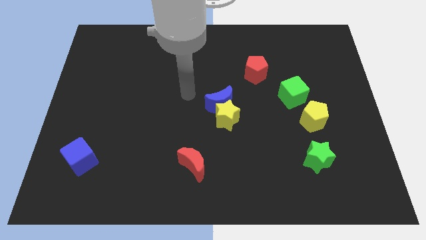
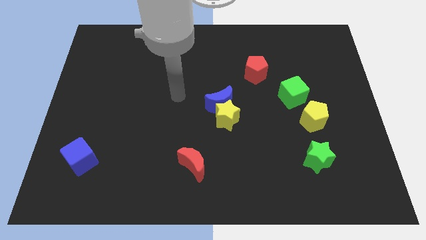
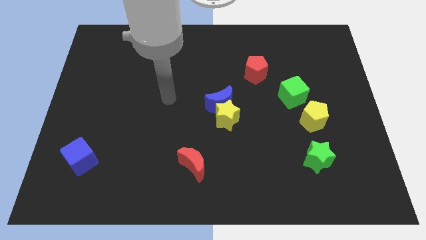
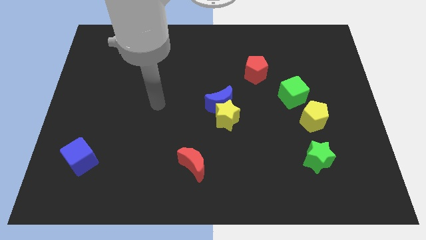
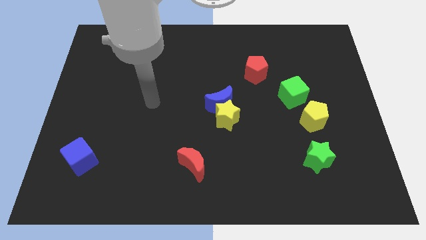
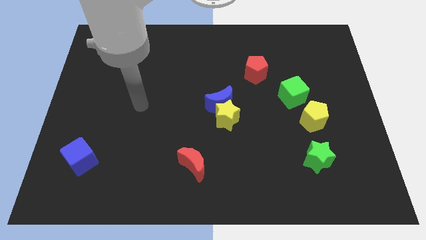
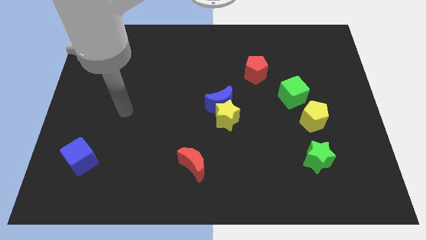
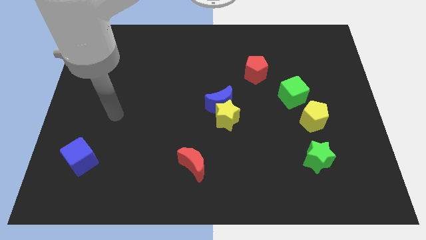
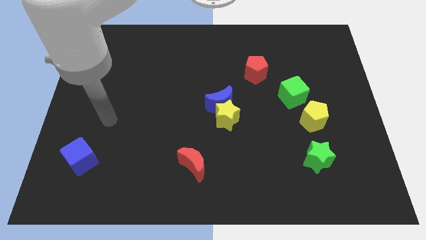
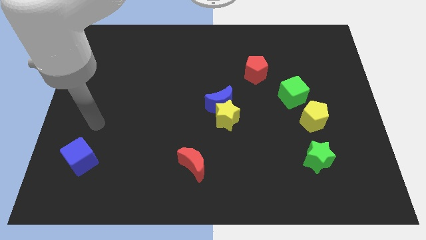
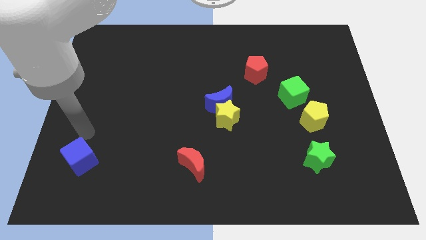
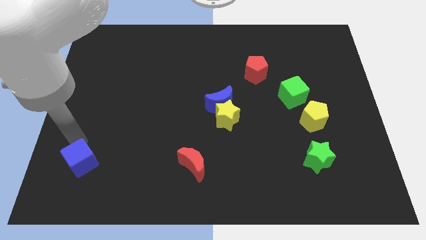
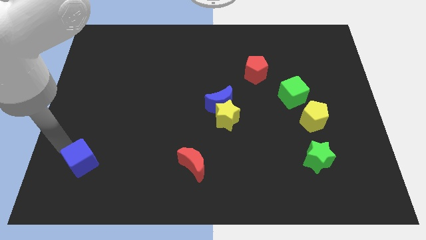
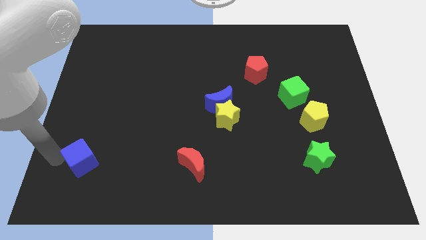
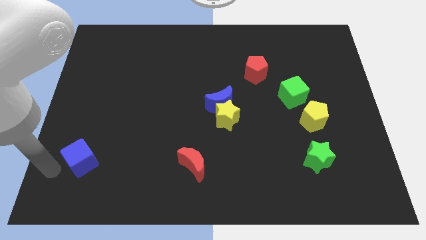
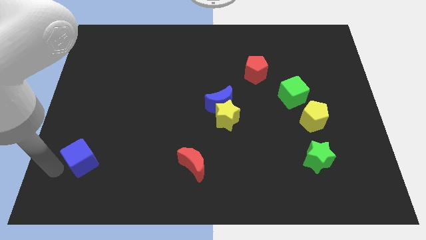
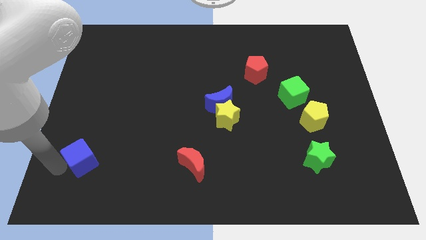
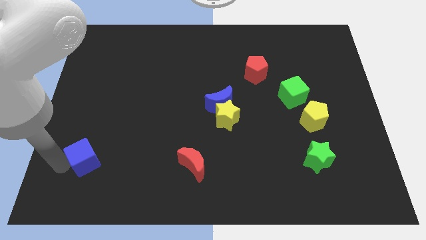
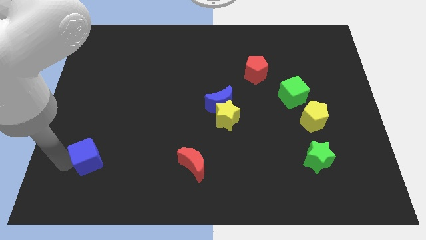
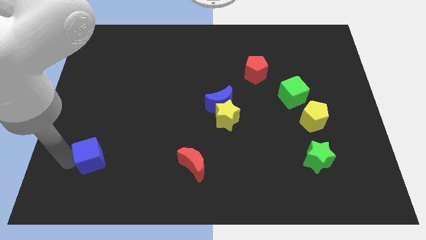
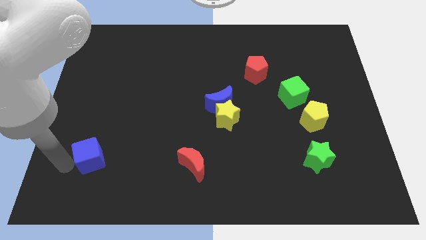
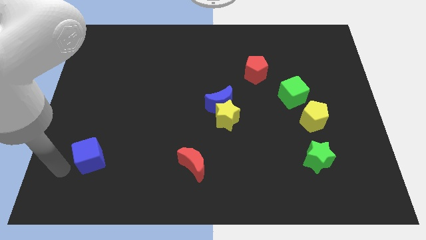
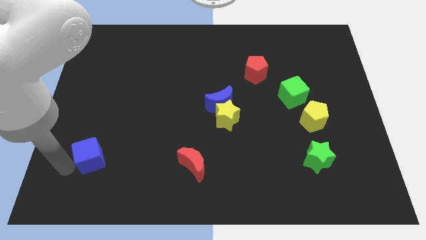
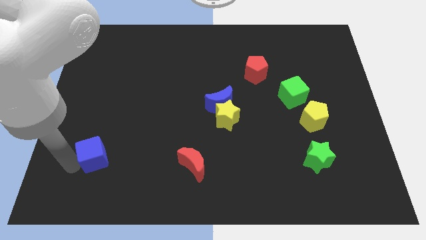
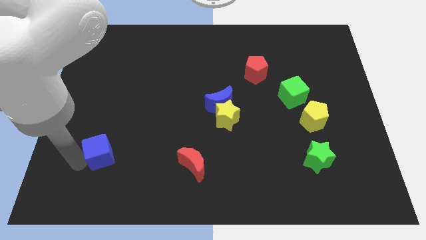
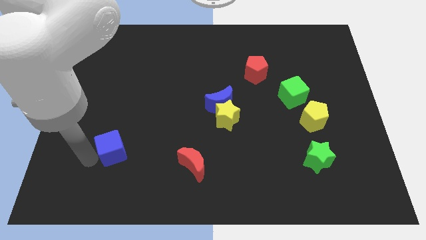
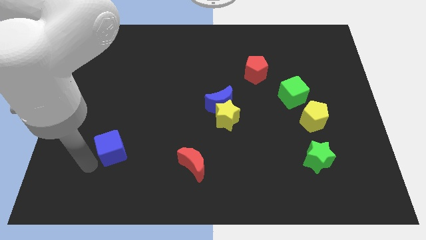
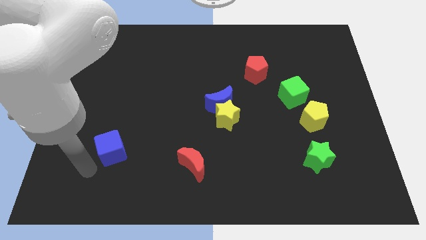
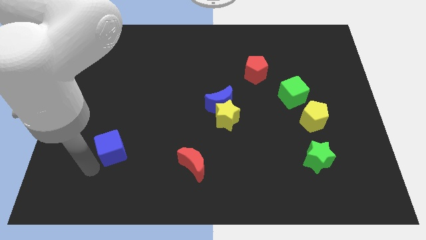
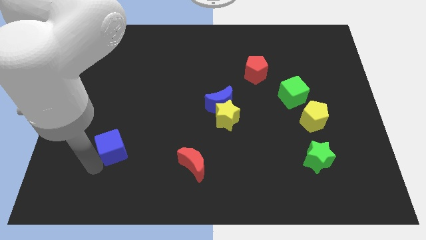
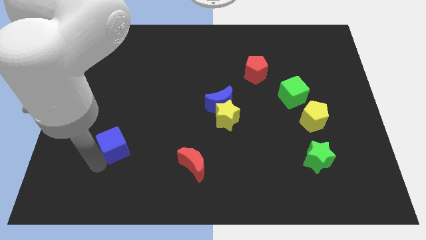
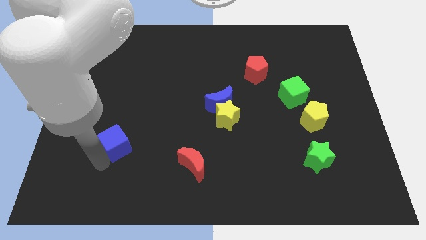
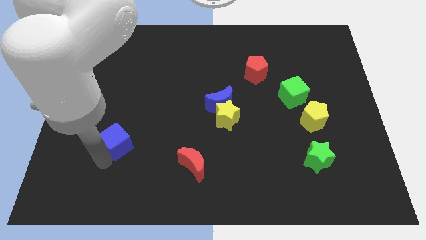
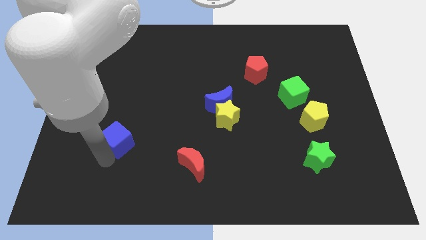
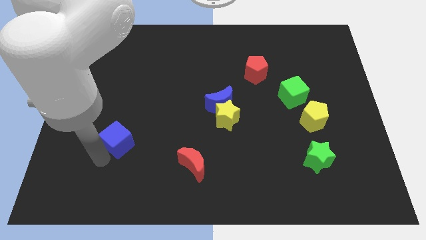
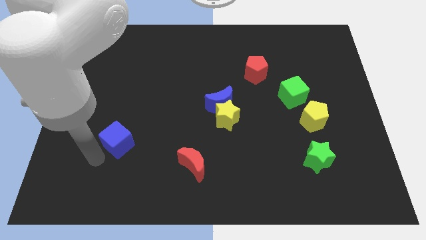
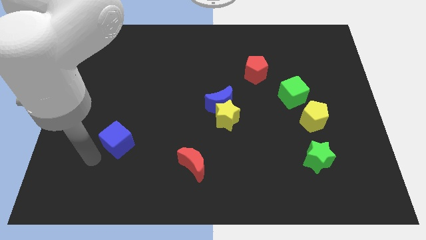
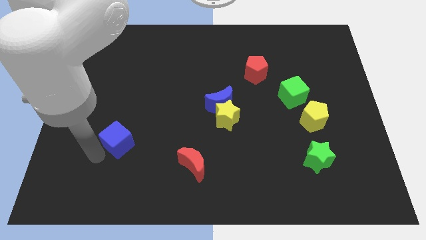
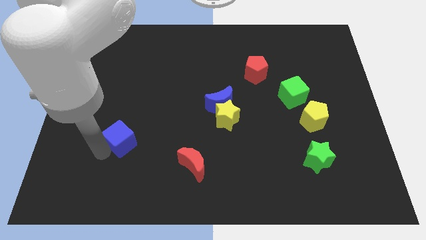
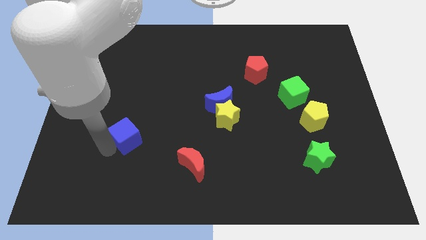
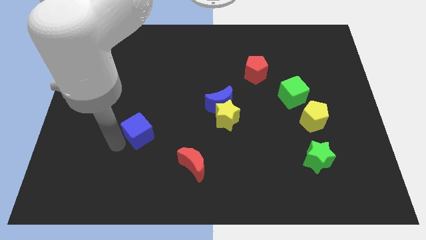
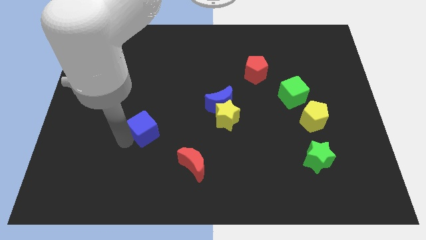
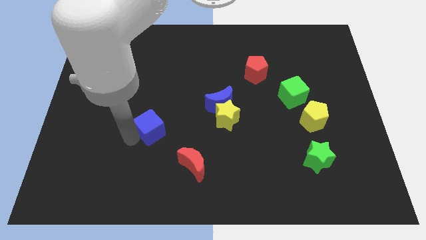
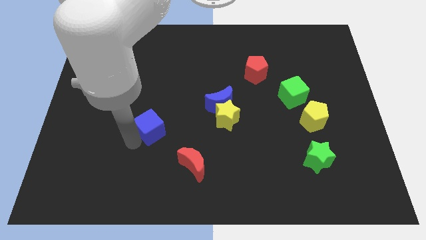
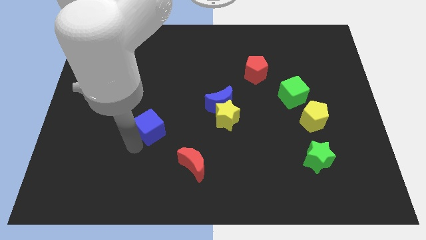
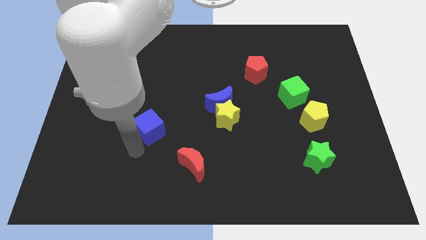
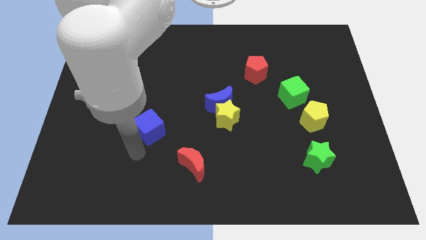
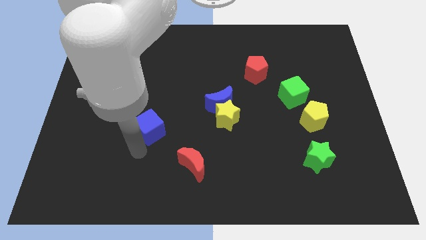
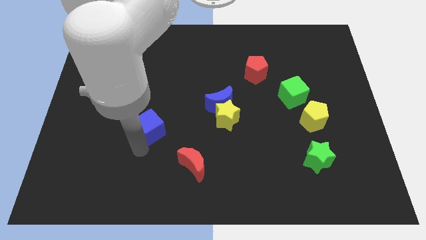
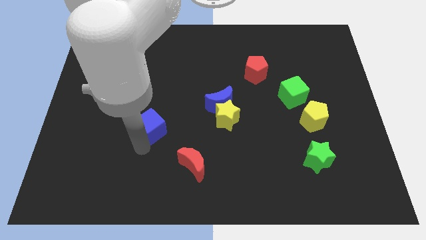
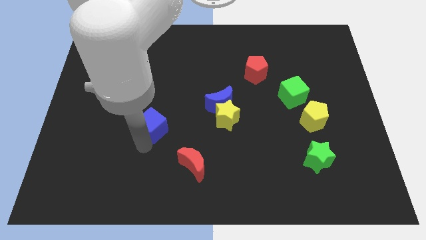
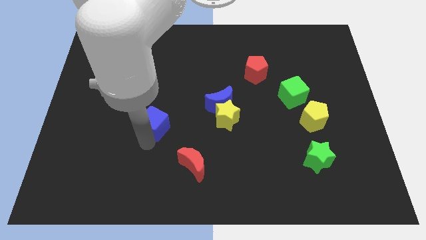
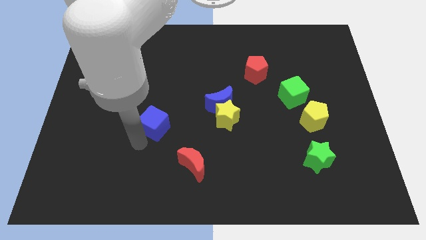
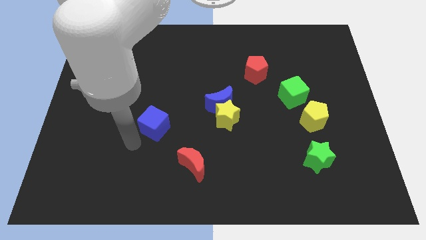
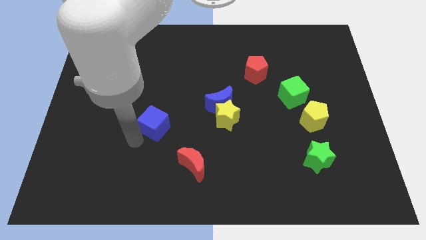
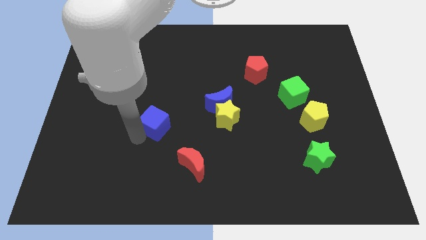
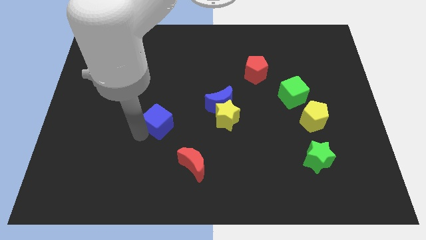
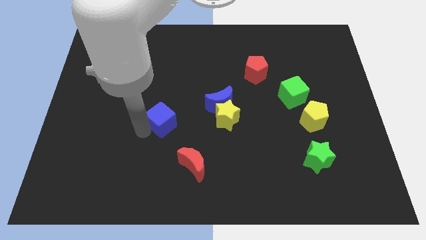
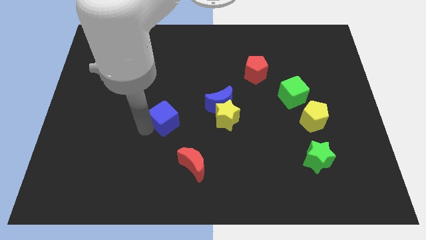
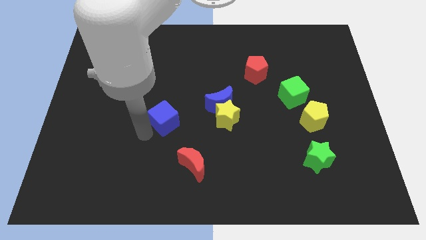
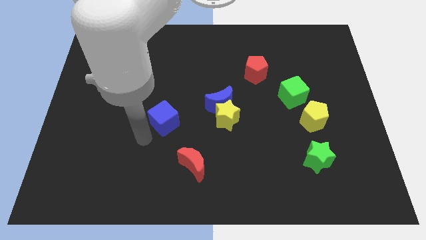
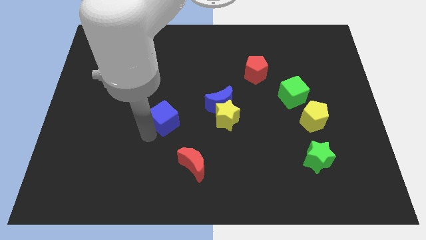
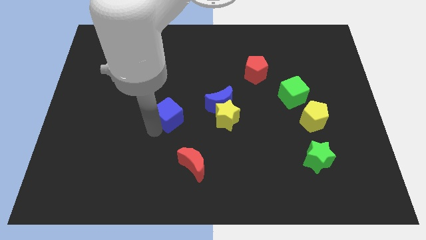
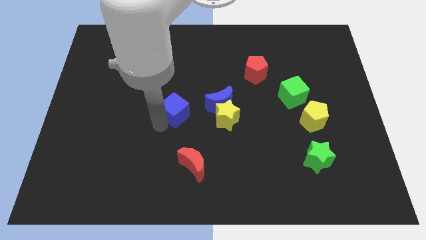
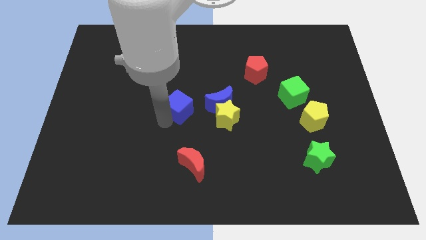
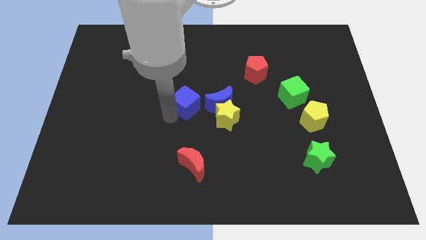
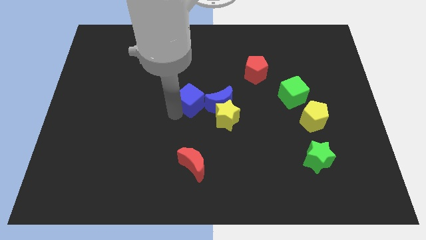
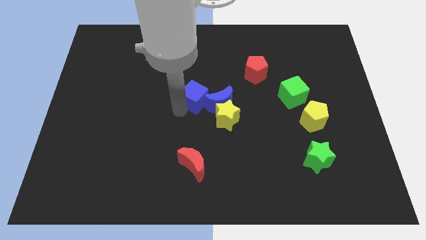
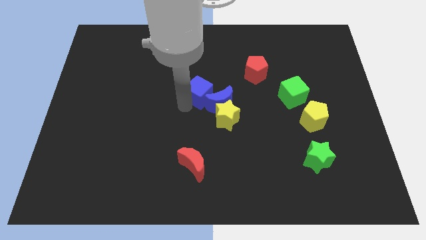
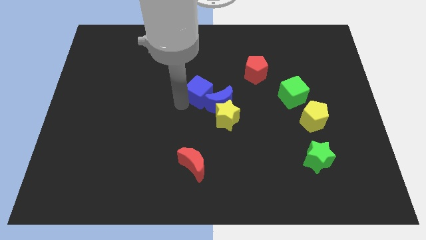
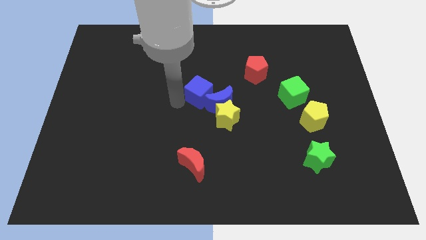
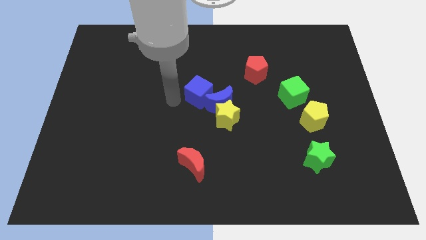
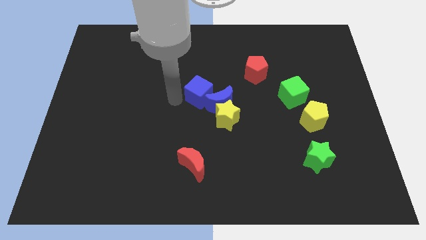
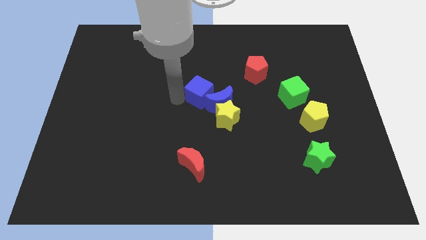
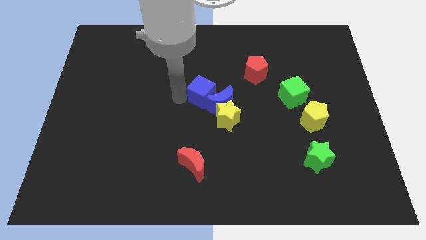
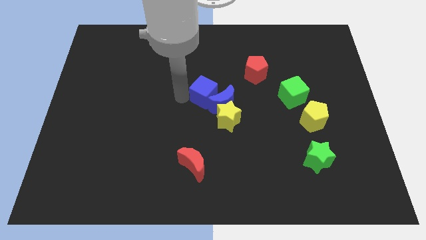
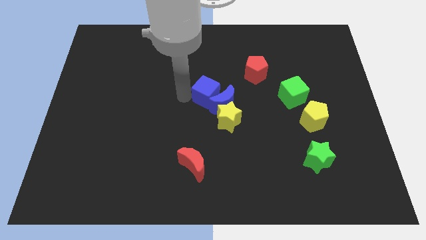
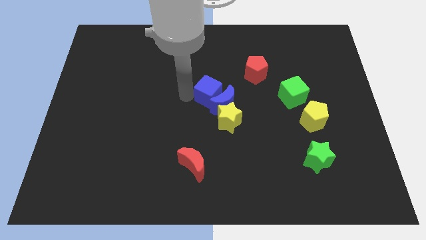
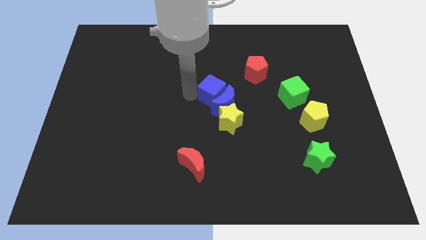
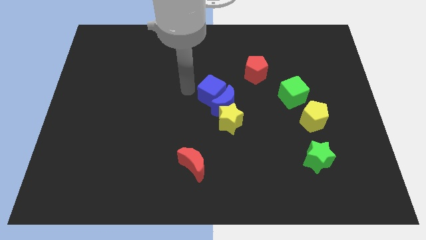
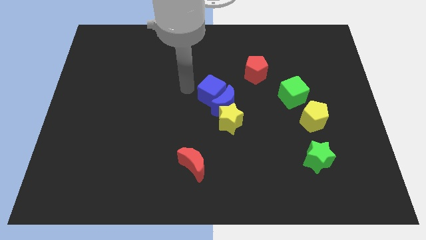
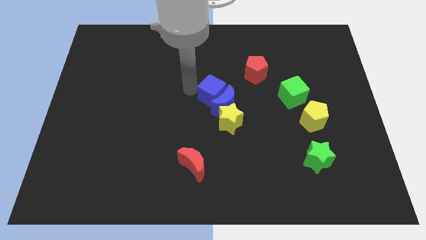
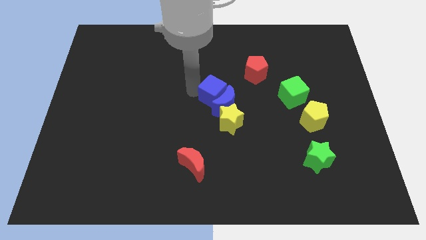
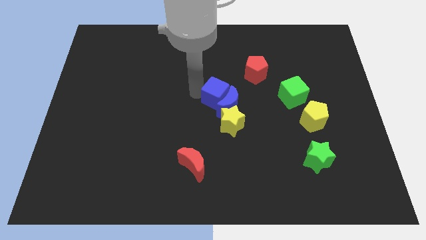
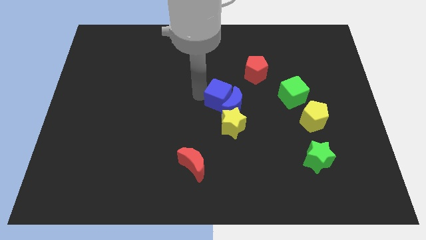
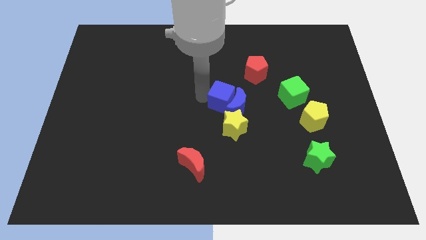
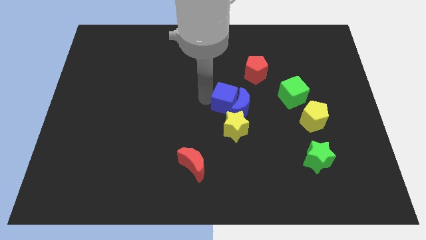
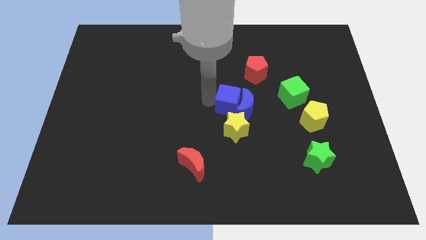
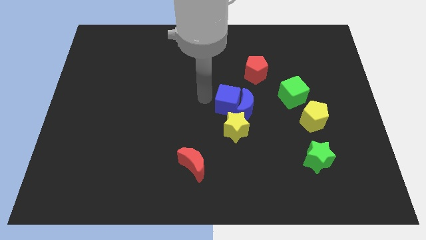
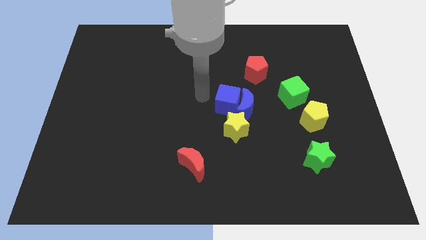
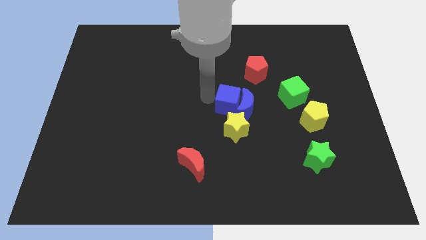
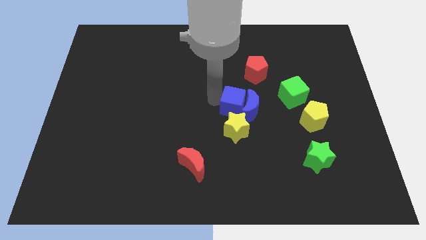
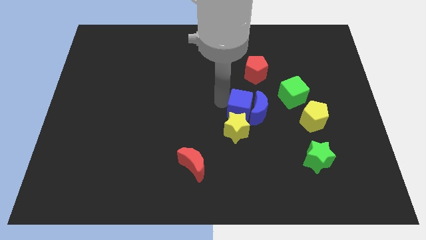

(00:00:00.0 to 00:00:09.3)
slide the blue cube to the top right of the yellow star
